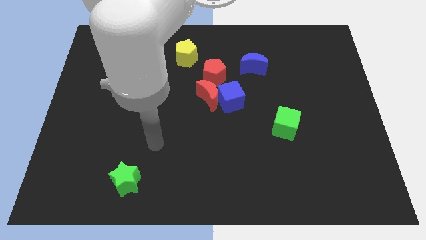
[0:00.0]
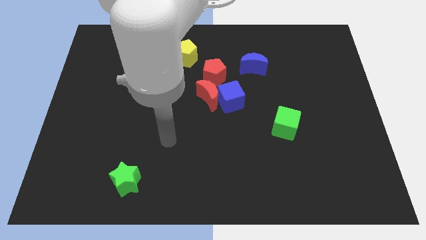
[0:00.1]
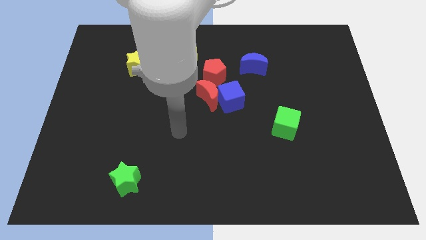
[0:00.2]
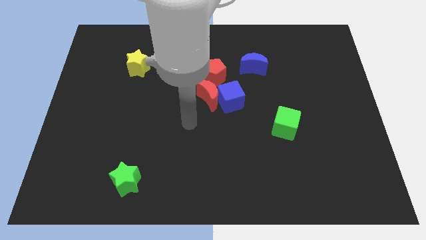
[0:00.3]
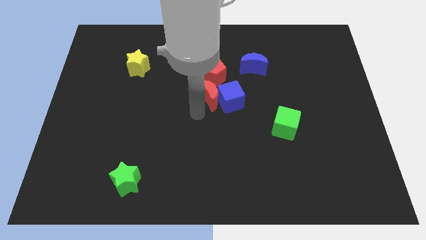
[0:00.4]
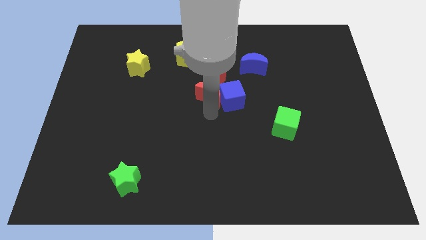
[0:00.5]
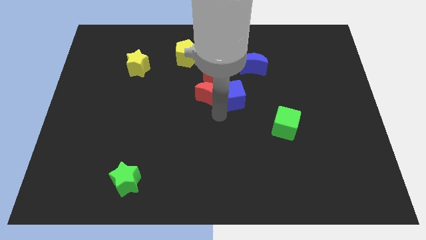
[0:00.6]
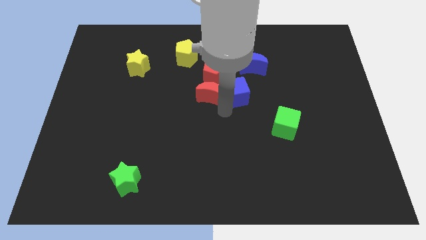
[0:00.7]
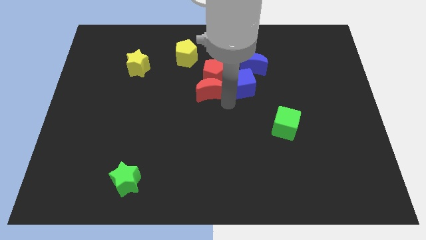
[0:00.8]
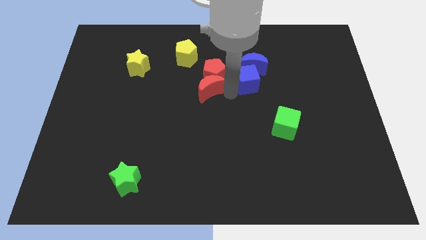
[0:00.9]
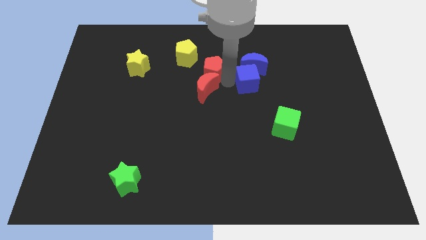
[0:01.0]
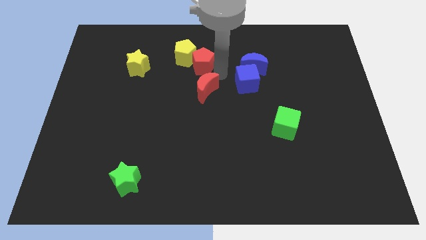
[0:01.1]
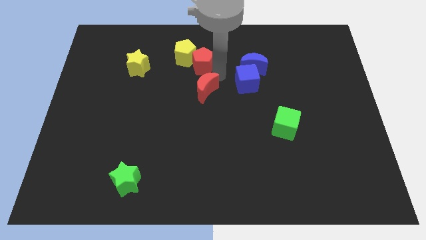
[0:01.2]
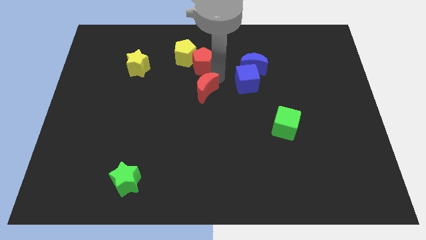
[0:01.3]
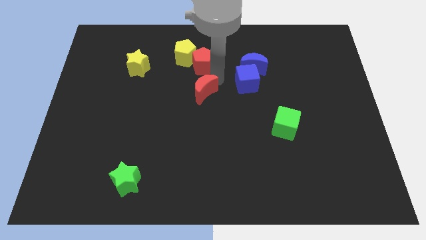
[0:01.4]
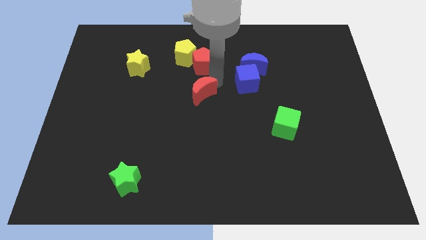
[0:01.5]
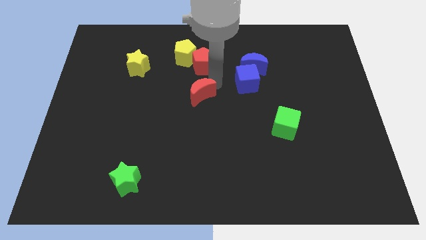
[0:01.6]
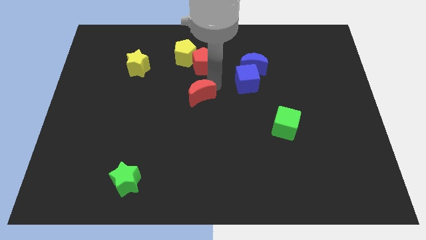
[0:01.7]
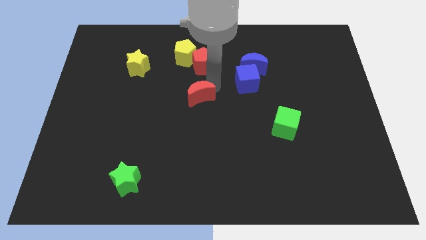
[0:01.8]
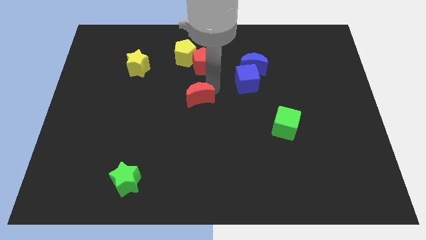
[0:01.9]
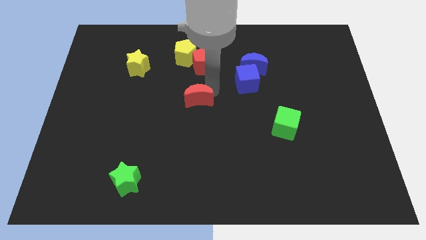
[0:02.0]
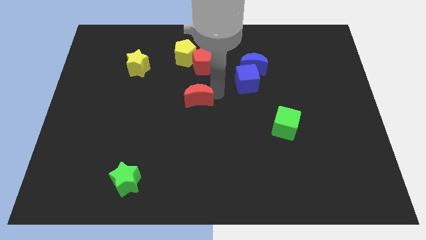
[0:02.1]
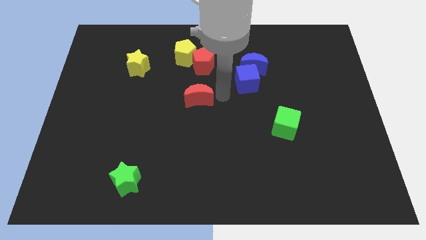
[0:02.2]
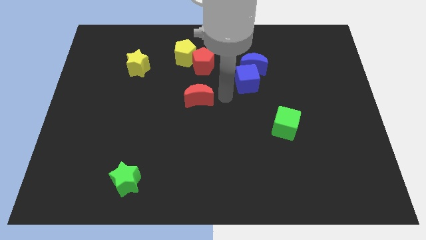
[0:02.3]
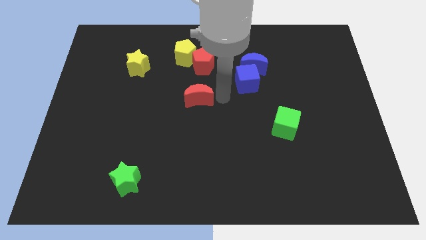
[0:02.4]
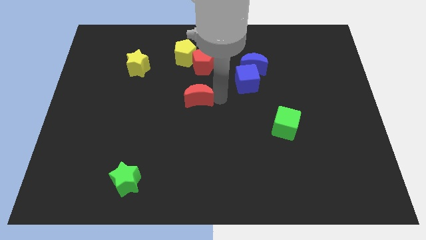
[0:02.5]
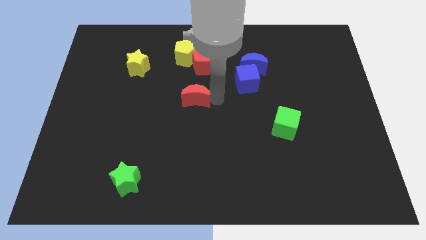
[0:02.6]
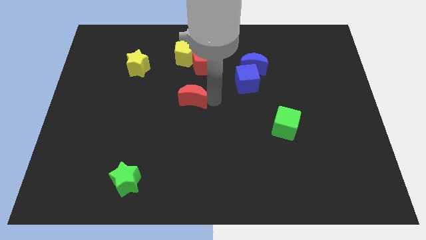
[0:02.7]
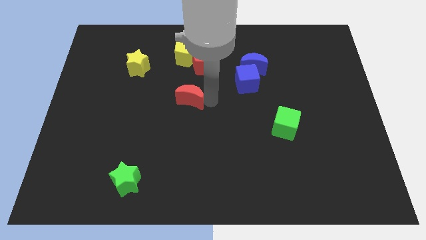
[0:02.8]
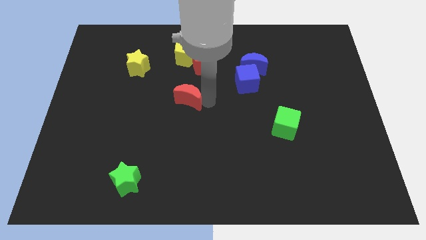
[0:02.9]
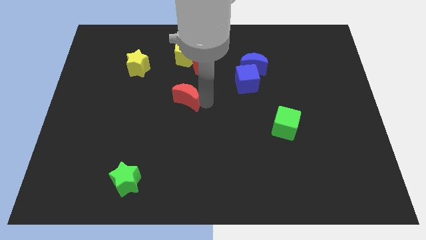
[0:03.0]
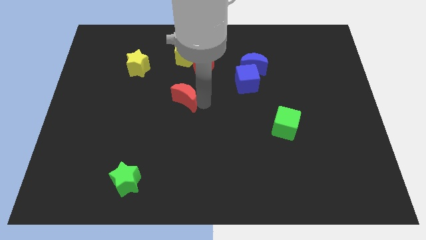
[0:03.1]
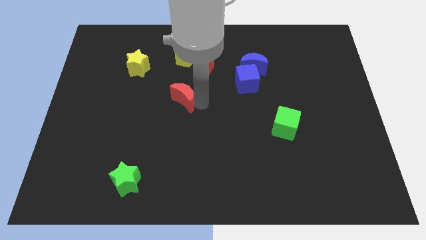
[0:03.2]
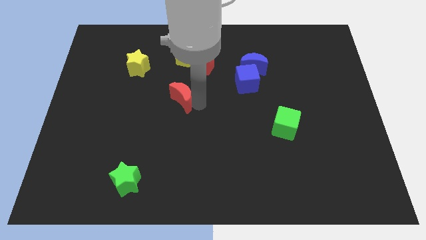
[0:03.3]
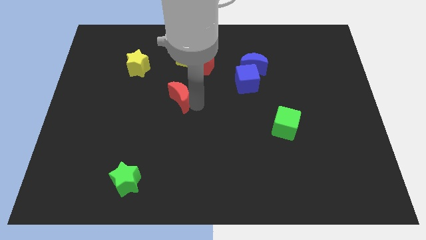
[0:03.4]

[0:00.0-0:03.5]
slightly move the red moon left

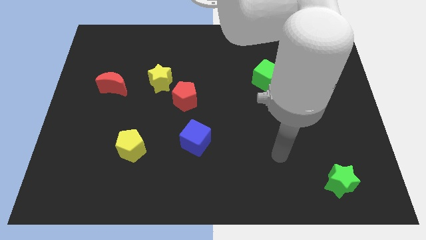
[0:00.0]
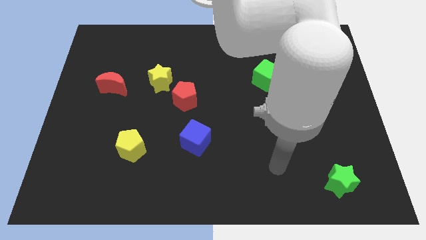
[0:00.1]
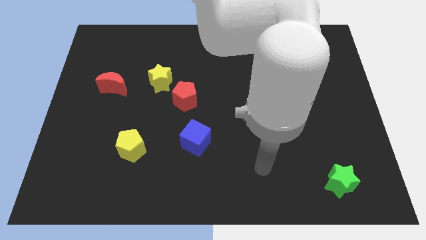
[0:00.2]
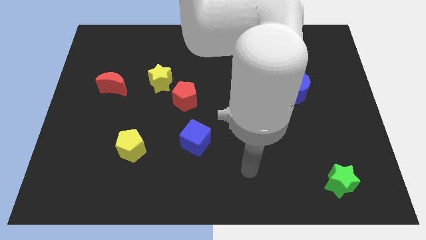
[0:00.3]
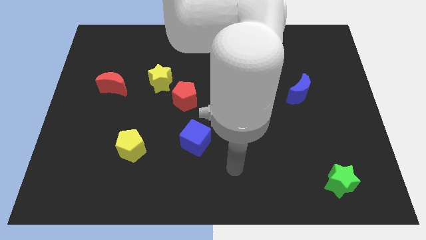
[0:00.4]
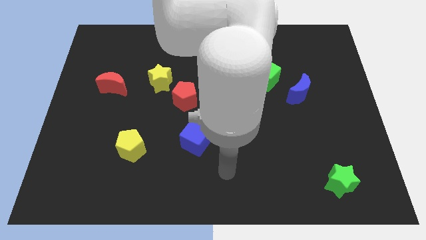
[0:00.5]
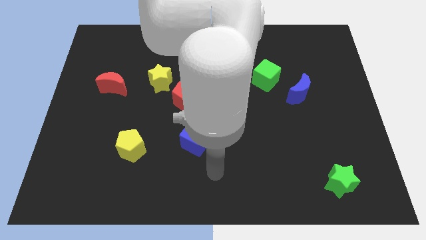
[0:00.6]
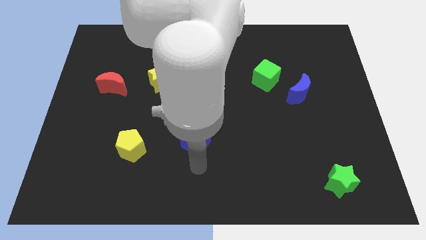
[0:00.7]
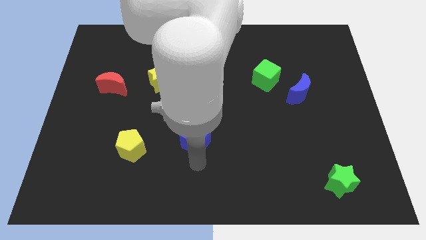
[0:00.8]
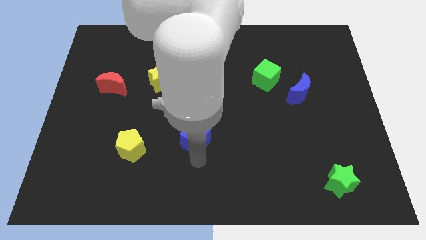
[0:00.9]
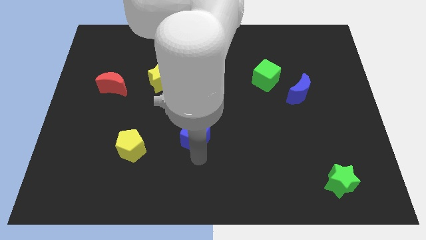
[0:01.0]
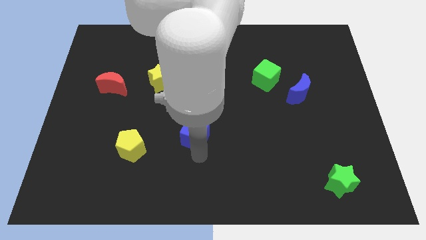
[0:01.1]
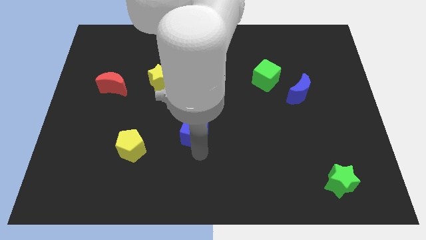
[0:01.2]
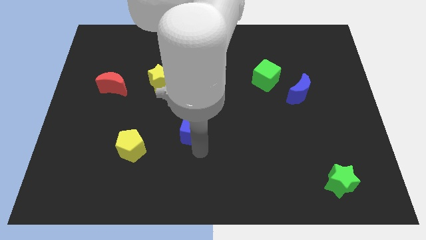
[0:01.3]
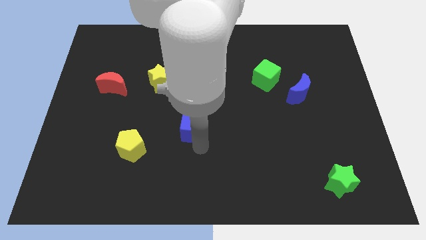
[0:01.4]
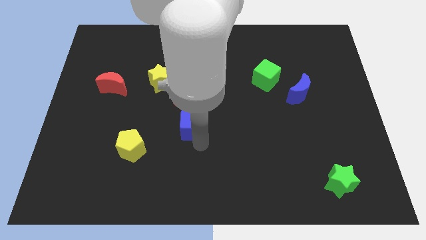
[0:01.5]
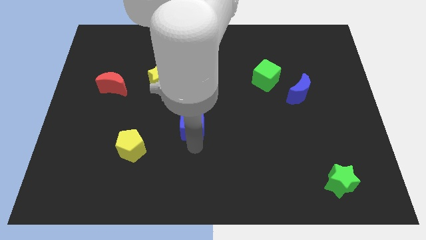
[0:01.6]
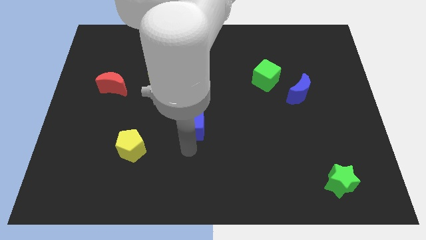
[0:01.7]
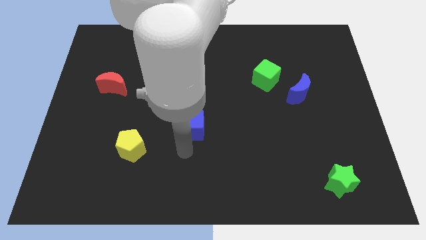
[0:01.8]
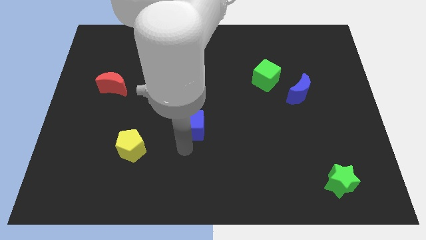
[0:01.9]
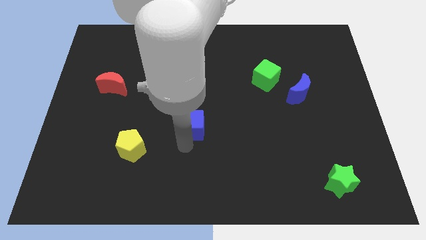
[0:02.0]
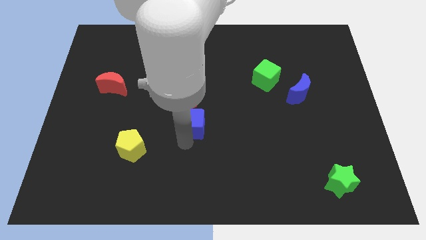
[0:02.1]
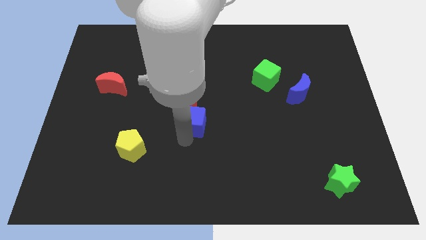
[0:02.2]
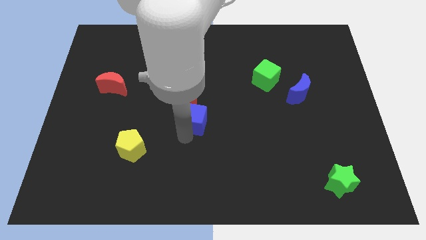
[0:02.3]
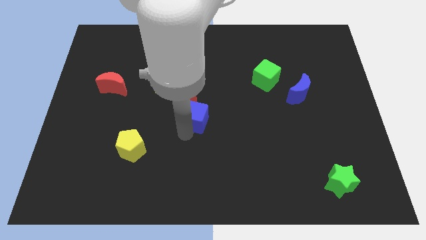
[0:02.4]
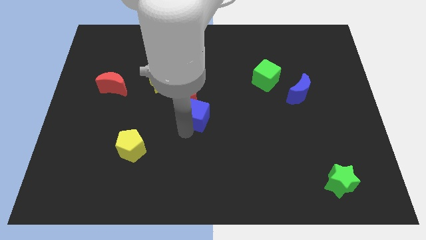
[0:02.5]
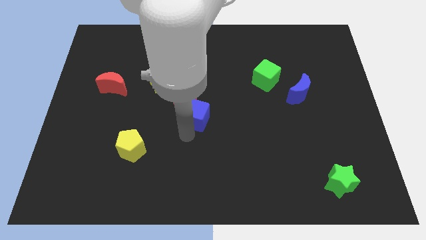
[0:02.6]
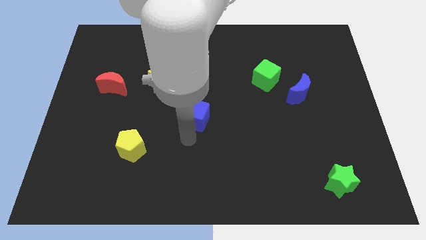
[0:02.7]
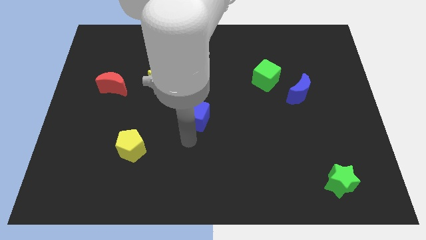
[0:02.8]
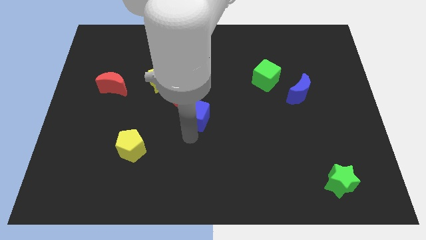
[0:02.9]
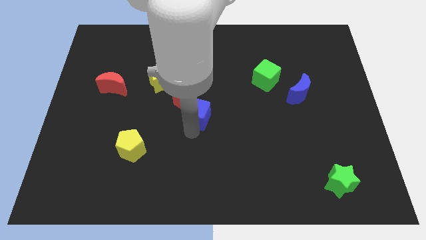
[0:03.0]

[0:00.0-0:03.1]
slightly push the blue cube upwards

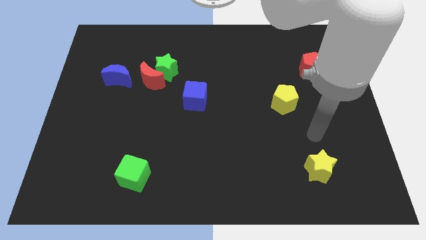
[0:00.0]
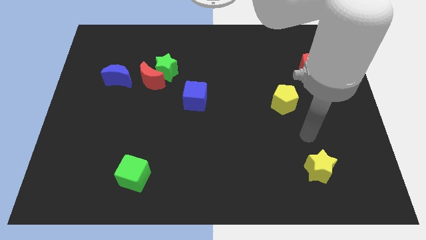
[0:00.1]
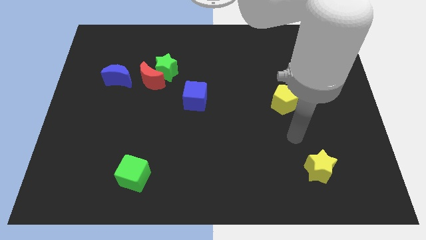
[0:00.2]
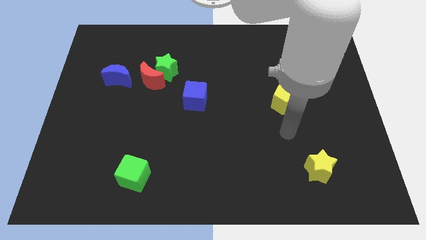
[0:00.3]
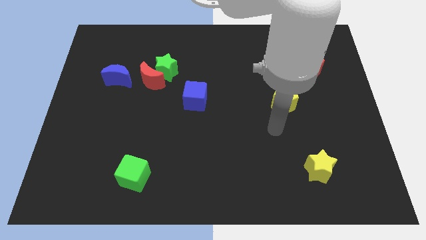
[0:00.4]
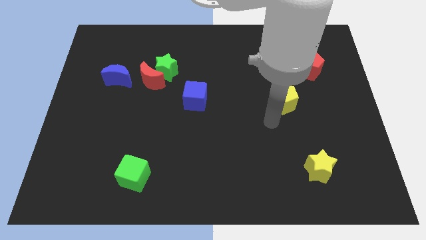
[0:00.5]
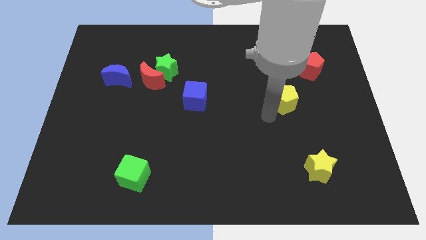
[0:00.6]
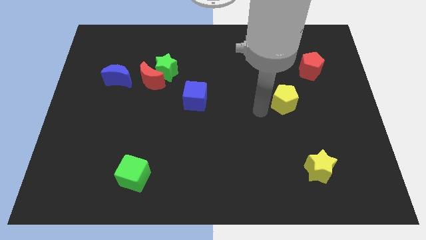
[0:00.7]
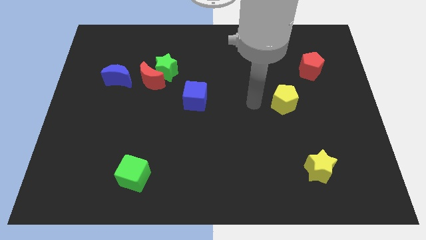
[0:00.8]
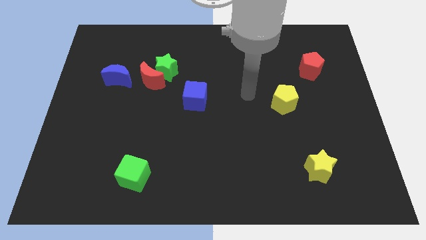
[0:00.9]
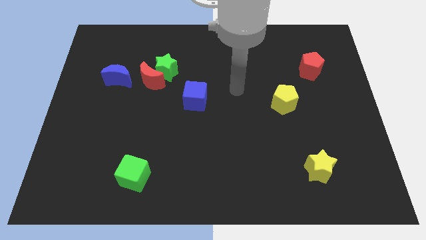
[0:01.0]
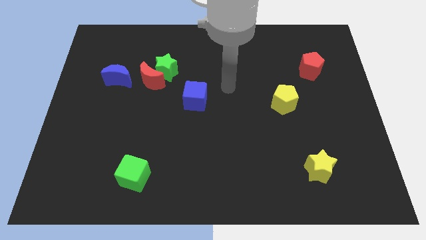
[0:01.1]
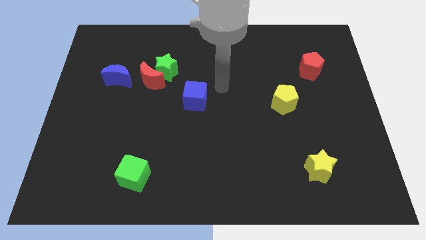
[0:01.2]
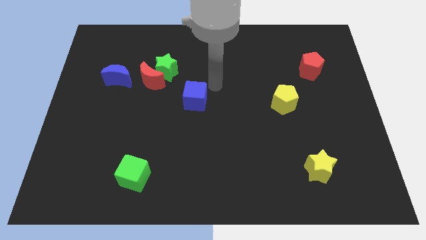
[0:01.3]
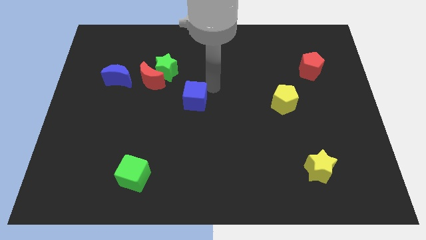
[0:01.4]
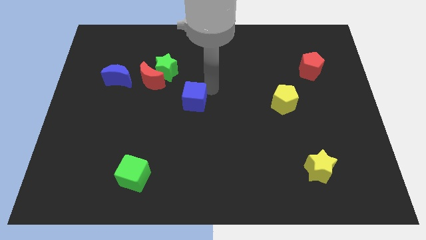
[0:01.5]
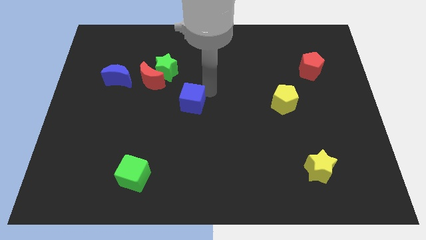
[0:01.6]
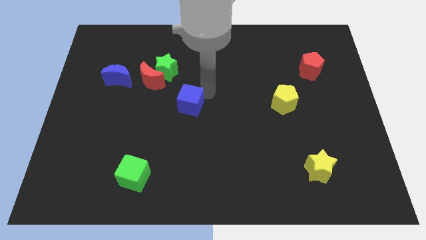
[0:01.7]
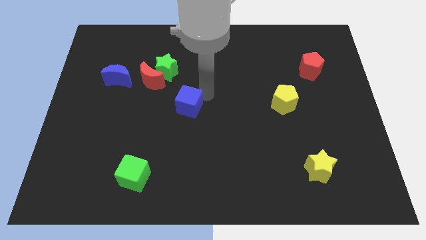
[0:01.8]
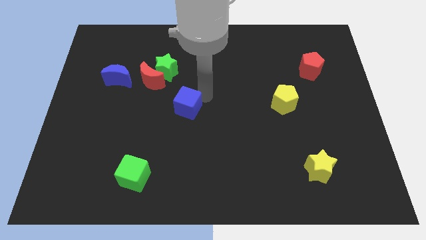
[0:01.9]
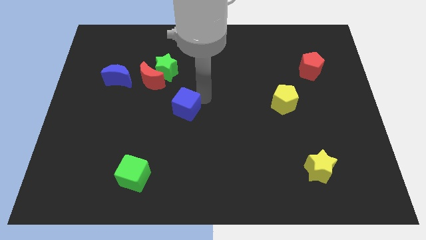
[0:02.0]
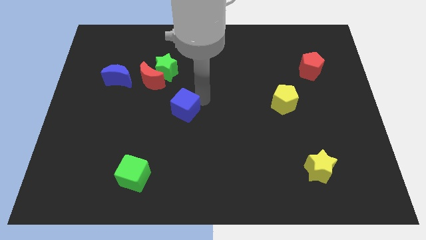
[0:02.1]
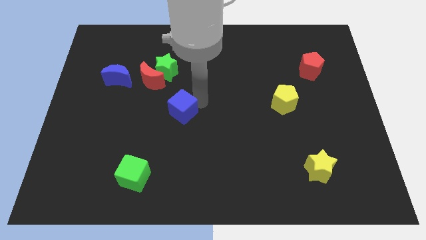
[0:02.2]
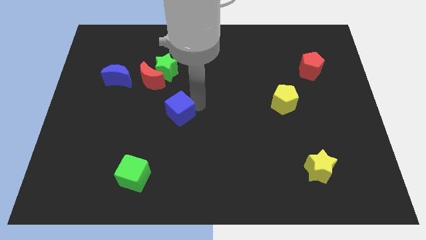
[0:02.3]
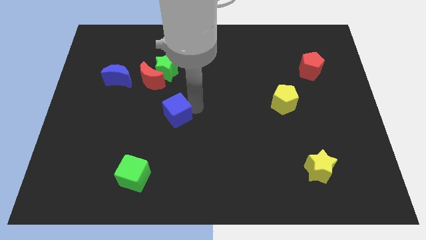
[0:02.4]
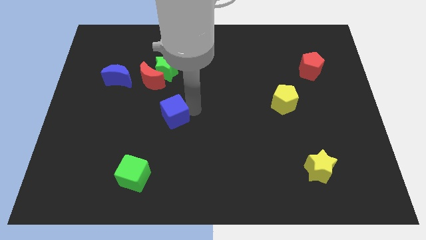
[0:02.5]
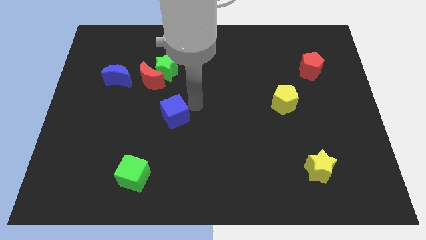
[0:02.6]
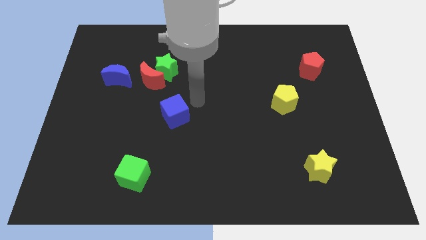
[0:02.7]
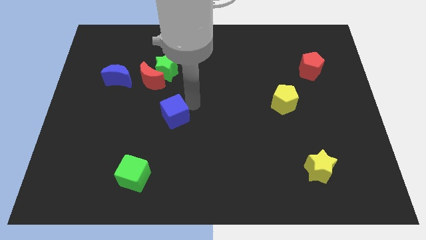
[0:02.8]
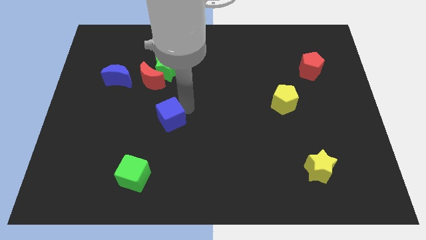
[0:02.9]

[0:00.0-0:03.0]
slightly move the blue cube diagonally down and to the left
